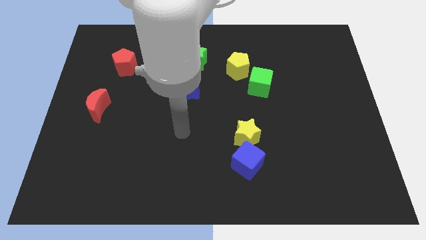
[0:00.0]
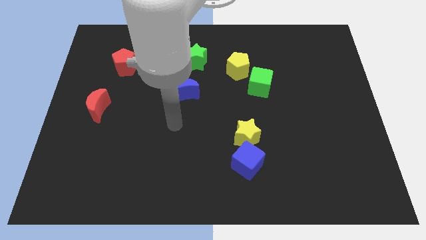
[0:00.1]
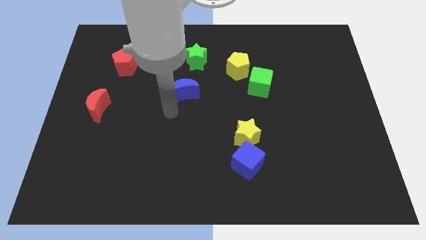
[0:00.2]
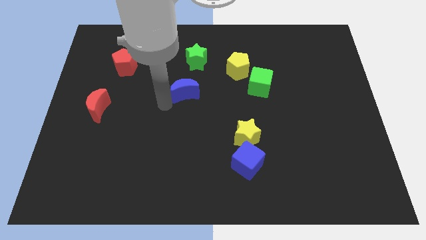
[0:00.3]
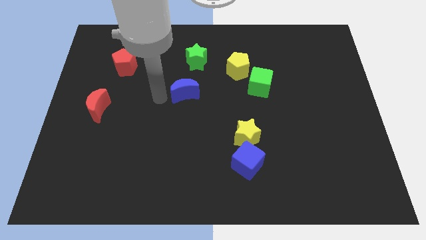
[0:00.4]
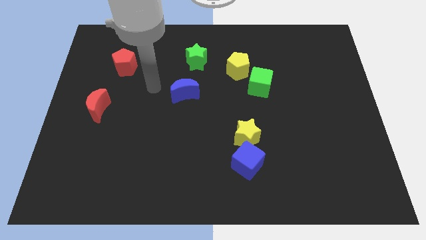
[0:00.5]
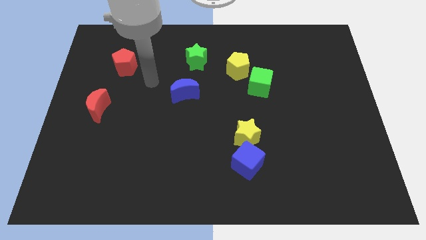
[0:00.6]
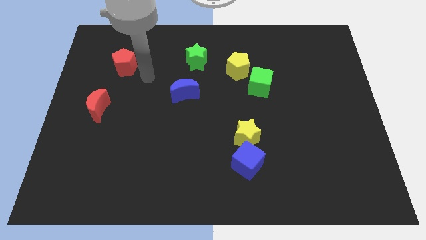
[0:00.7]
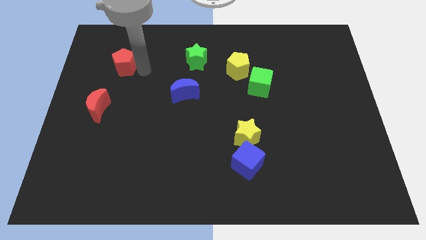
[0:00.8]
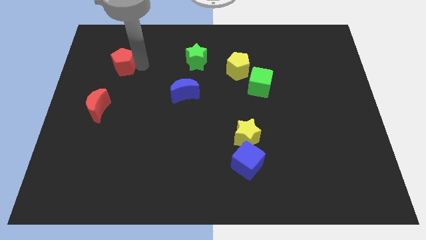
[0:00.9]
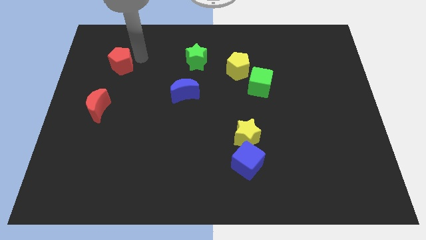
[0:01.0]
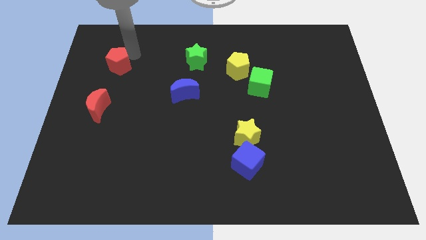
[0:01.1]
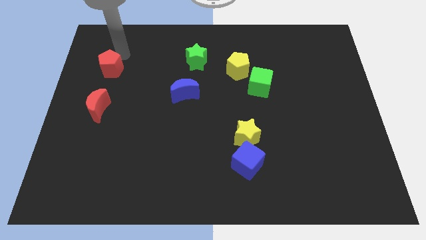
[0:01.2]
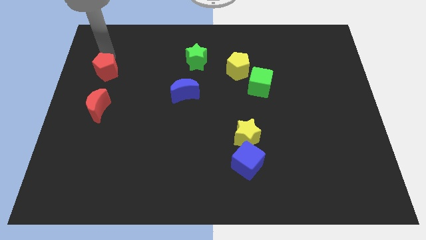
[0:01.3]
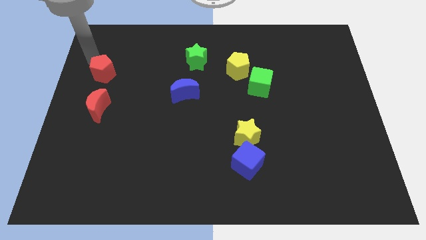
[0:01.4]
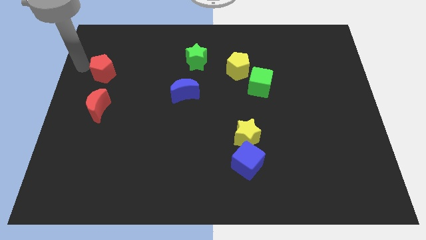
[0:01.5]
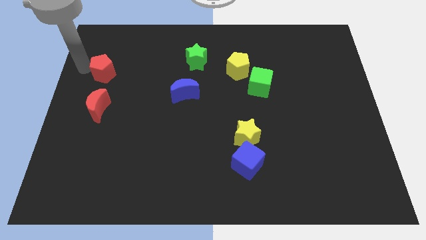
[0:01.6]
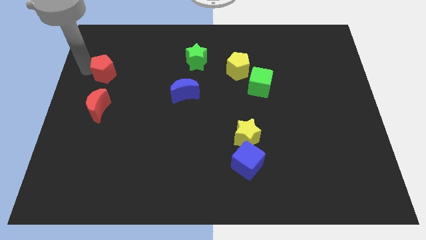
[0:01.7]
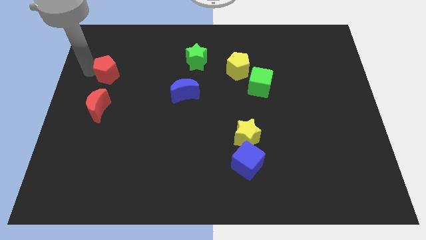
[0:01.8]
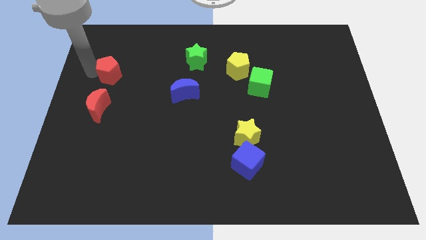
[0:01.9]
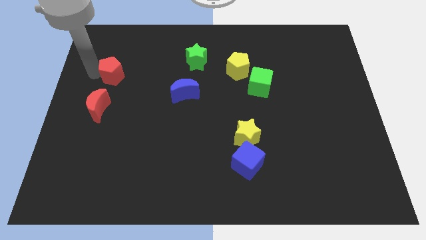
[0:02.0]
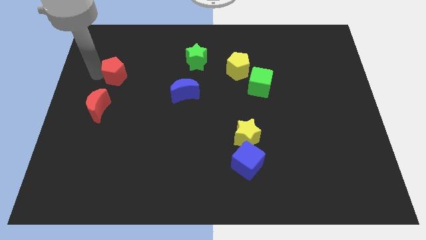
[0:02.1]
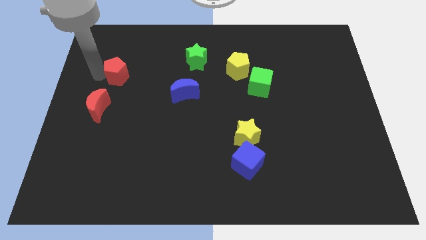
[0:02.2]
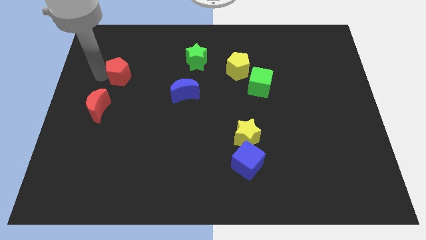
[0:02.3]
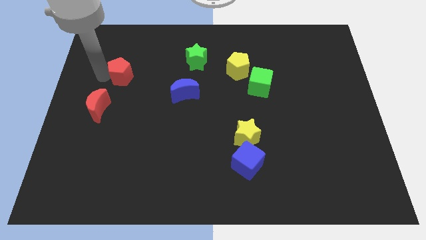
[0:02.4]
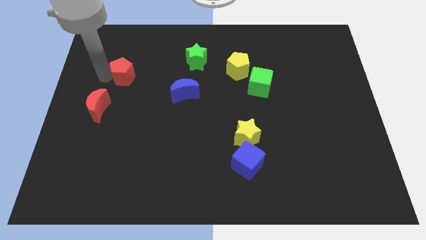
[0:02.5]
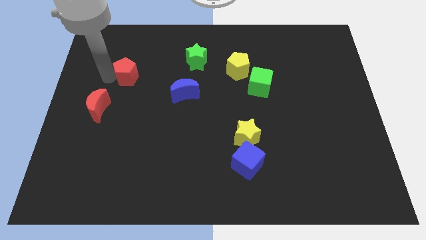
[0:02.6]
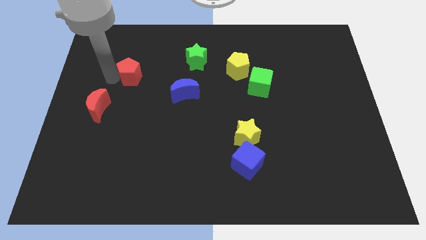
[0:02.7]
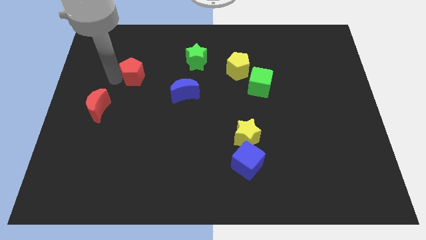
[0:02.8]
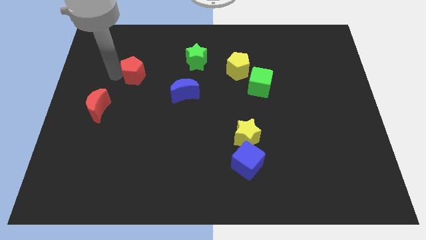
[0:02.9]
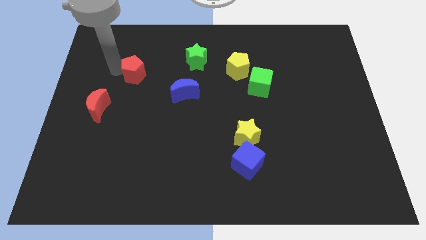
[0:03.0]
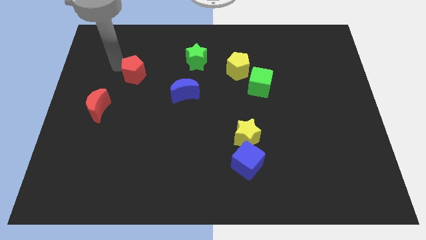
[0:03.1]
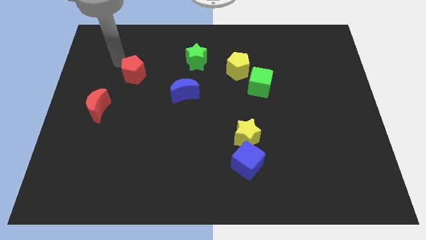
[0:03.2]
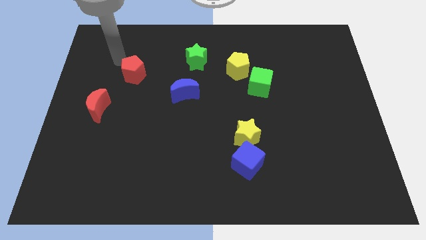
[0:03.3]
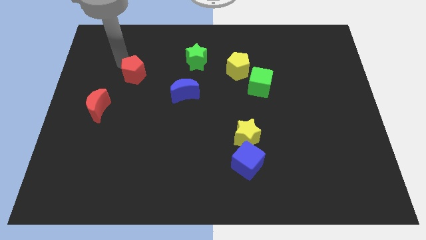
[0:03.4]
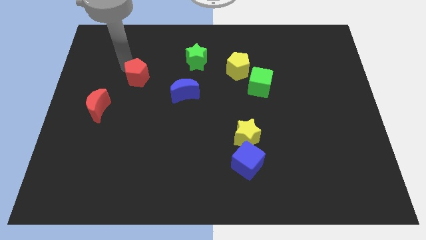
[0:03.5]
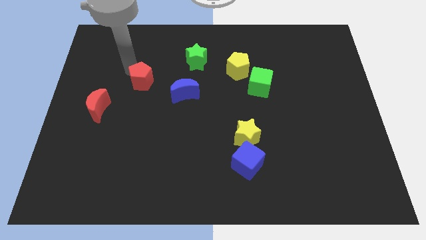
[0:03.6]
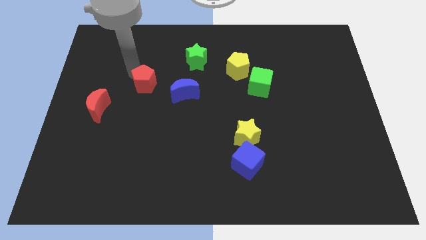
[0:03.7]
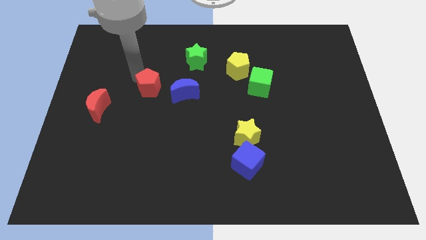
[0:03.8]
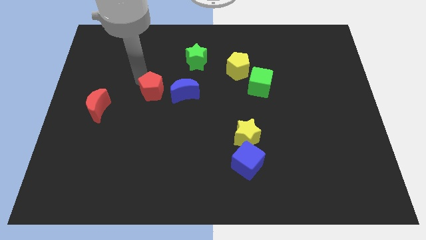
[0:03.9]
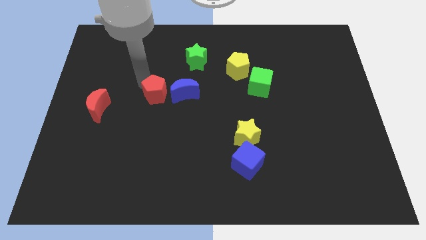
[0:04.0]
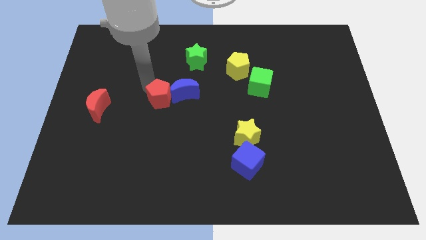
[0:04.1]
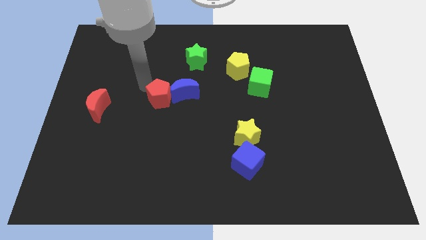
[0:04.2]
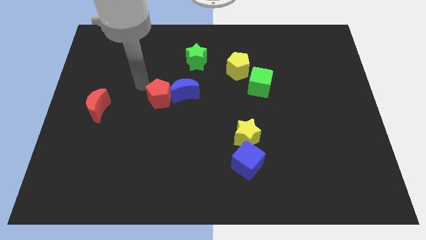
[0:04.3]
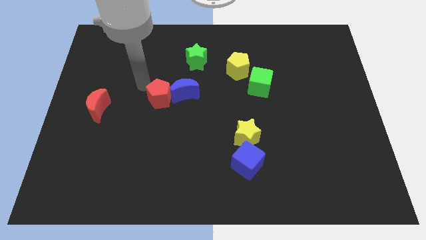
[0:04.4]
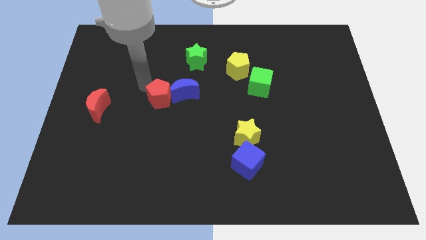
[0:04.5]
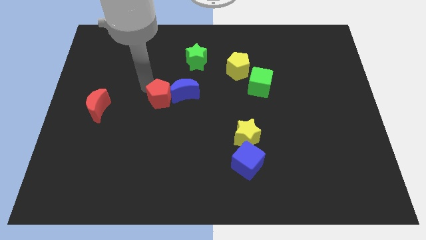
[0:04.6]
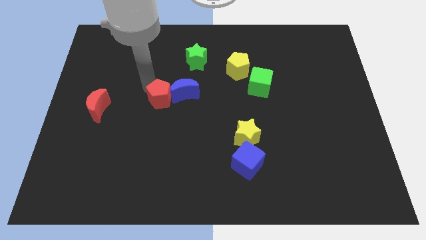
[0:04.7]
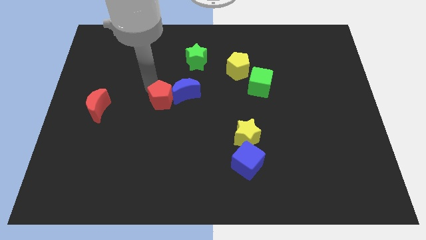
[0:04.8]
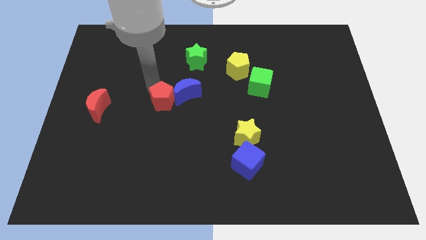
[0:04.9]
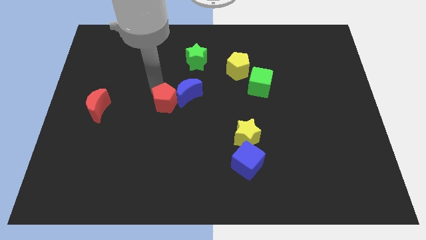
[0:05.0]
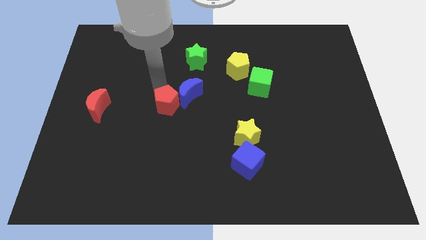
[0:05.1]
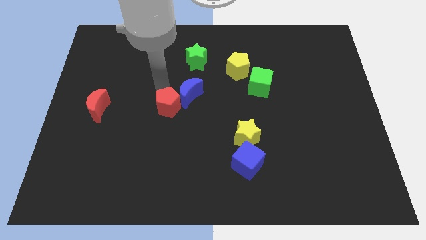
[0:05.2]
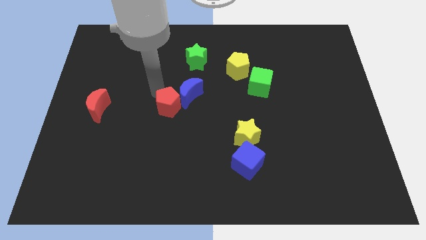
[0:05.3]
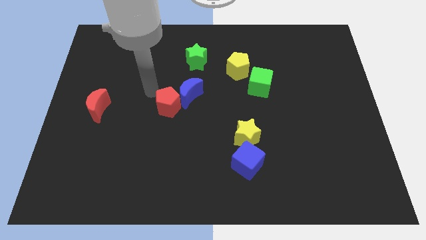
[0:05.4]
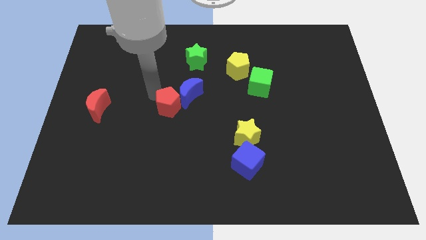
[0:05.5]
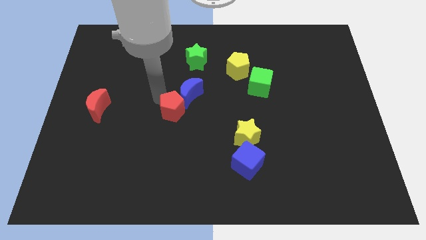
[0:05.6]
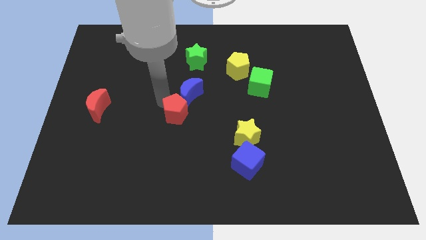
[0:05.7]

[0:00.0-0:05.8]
slide the red pentagon down and then to the right

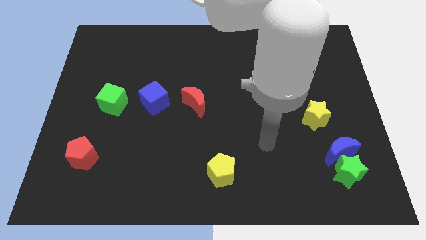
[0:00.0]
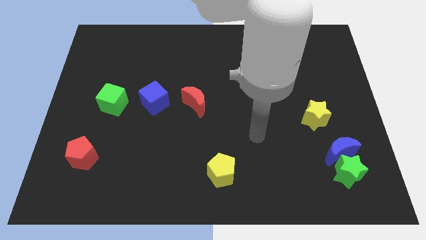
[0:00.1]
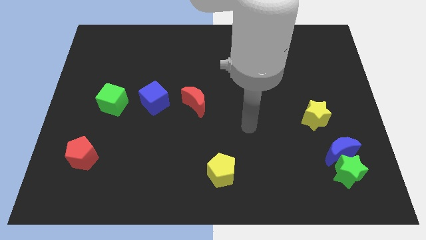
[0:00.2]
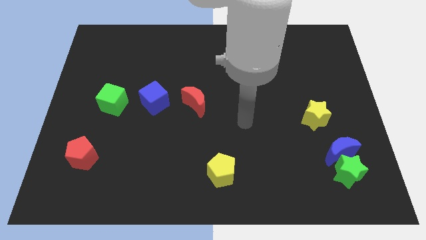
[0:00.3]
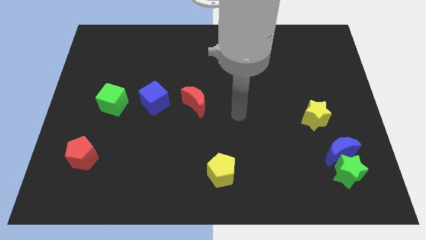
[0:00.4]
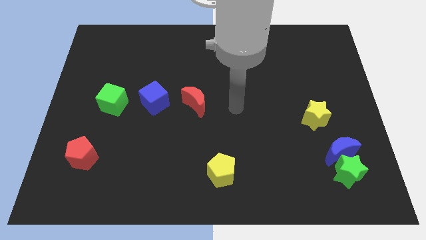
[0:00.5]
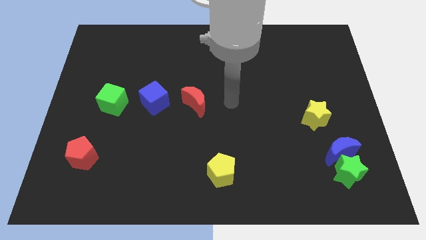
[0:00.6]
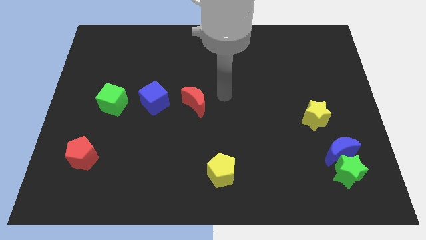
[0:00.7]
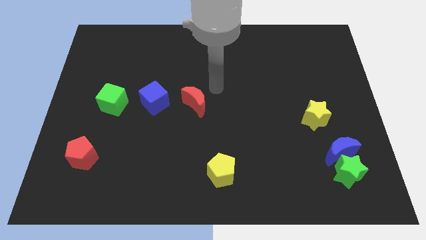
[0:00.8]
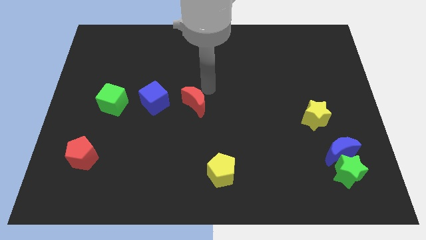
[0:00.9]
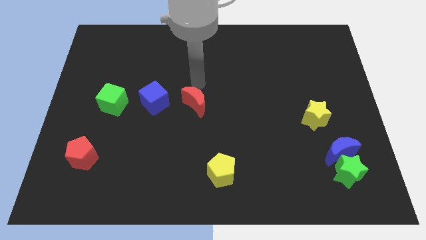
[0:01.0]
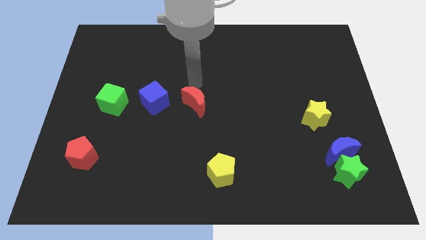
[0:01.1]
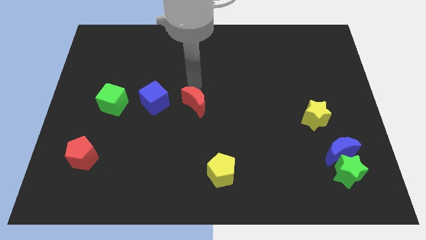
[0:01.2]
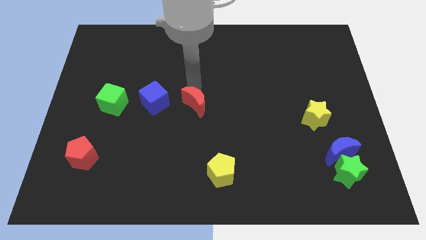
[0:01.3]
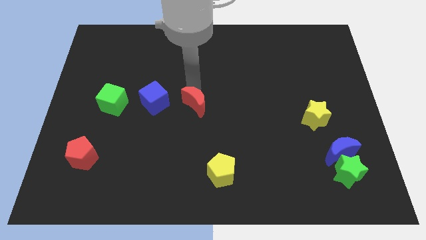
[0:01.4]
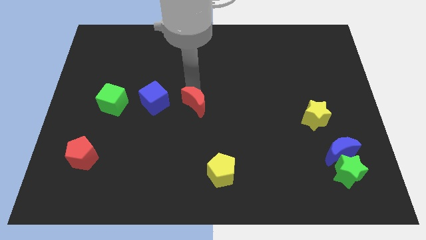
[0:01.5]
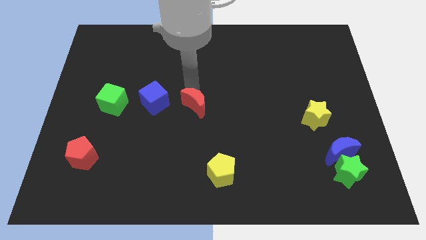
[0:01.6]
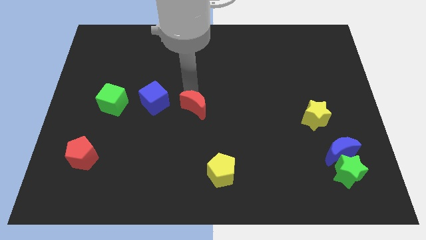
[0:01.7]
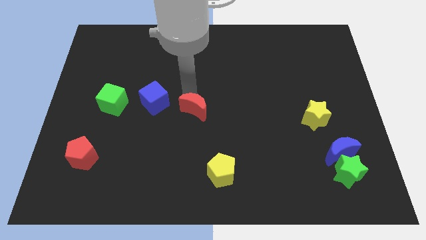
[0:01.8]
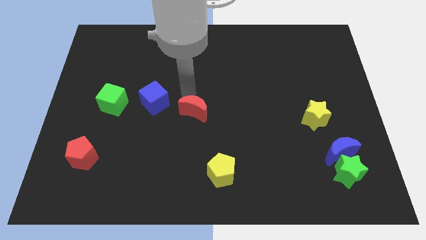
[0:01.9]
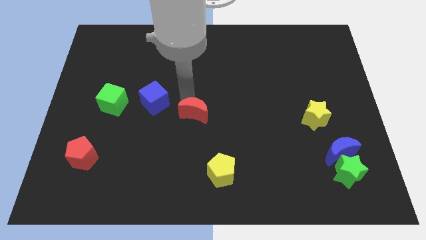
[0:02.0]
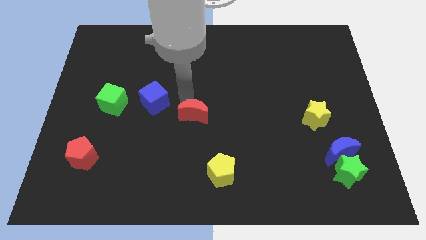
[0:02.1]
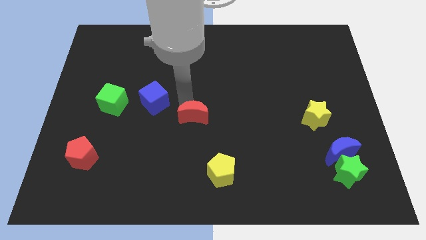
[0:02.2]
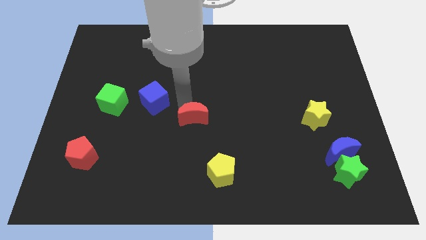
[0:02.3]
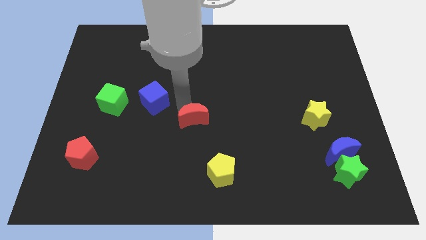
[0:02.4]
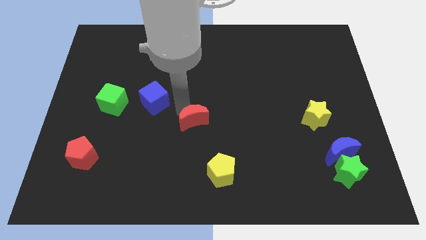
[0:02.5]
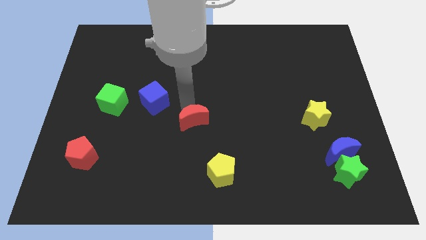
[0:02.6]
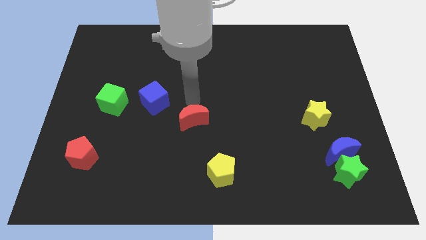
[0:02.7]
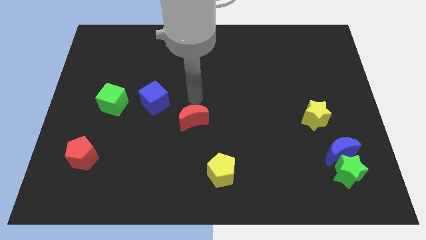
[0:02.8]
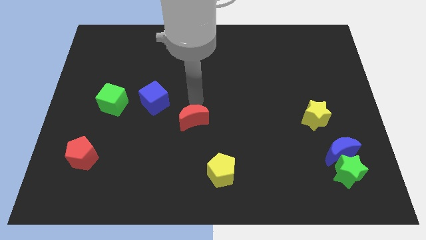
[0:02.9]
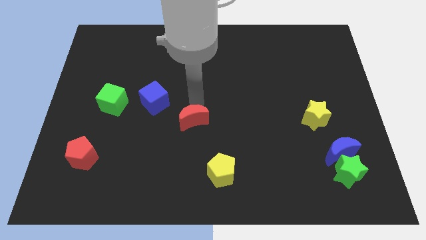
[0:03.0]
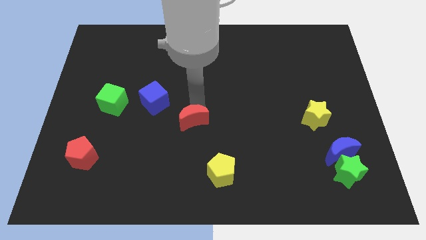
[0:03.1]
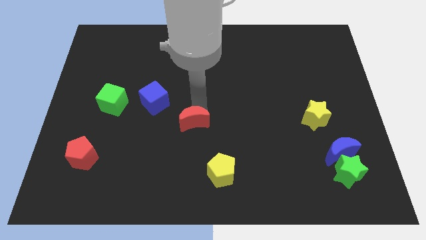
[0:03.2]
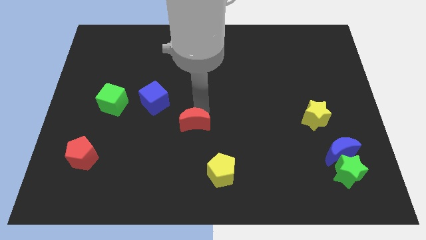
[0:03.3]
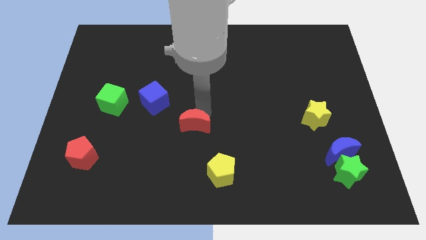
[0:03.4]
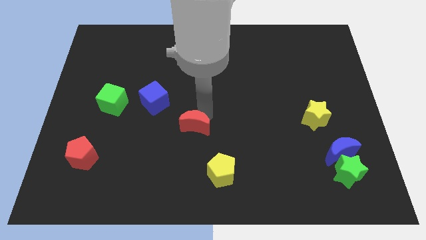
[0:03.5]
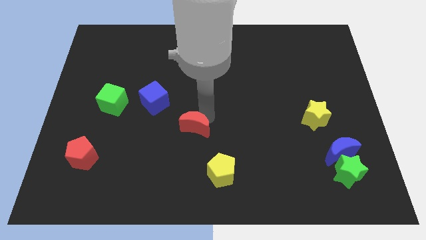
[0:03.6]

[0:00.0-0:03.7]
slide the red moon downwards somewhat
